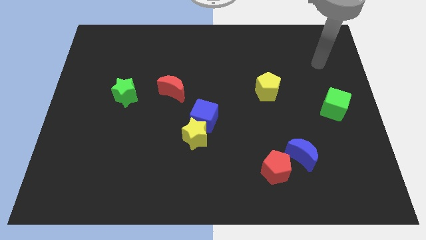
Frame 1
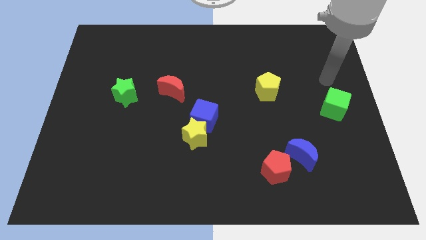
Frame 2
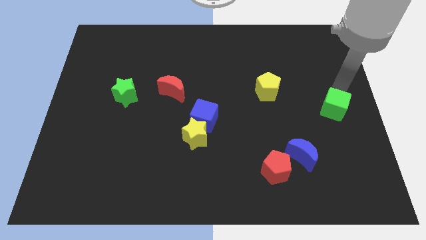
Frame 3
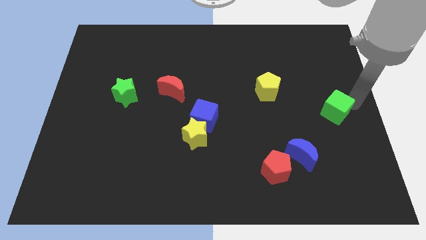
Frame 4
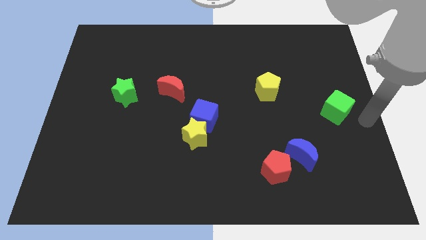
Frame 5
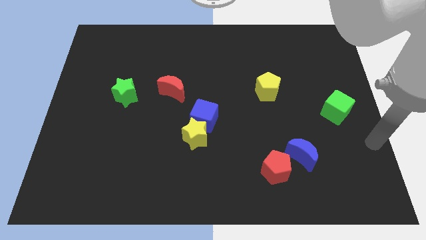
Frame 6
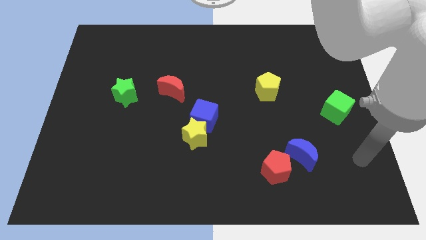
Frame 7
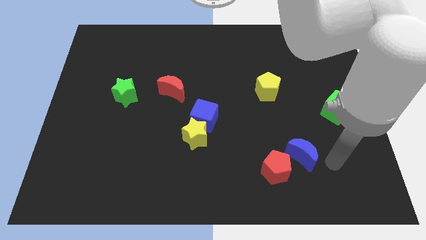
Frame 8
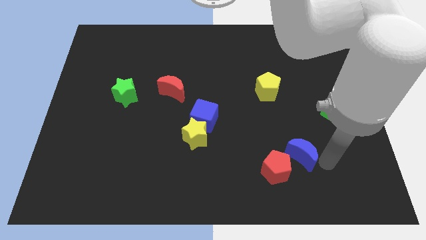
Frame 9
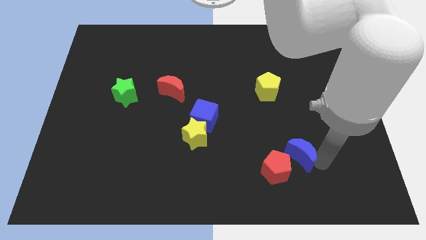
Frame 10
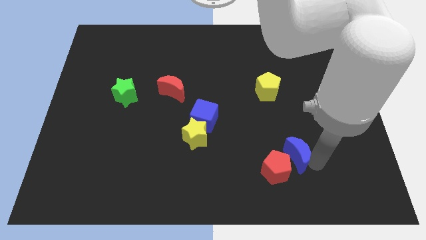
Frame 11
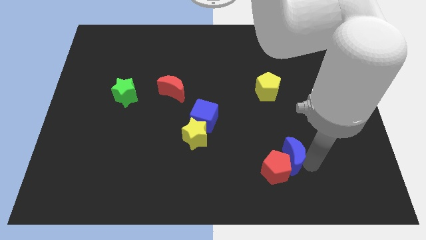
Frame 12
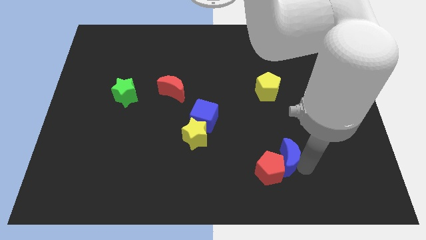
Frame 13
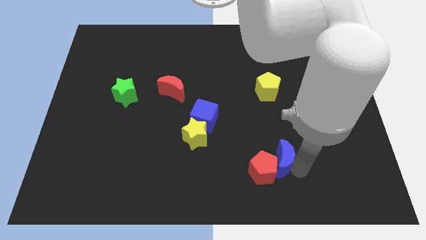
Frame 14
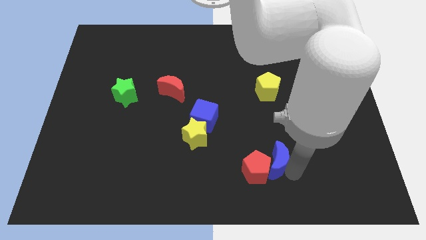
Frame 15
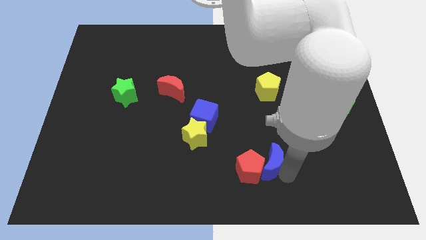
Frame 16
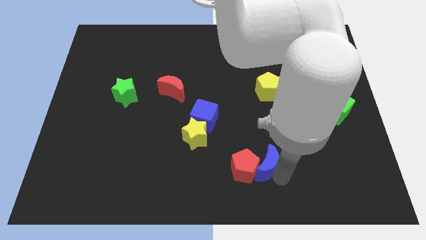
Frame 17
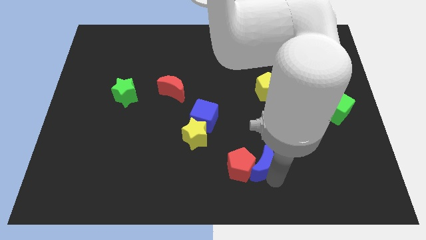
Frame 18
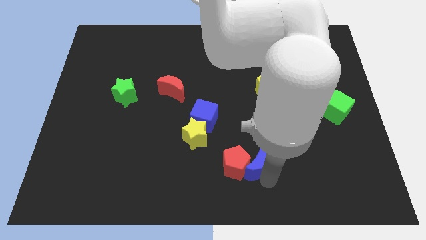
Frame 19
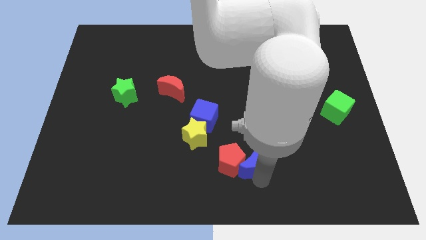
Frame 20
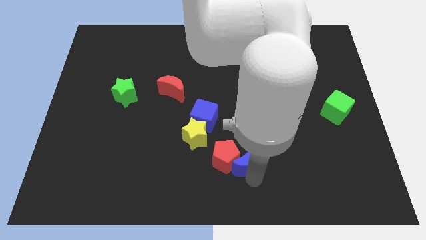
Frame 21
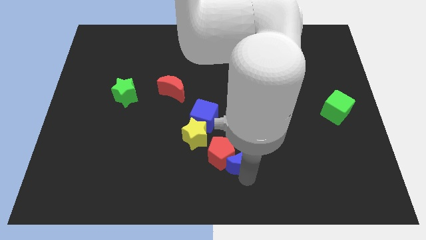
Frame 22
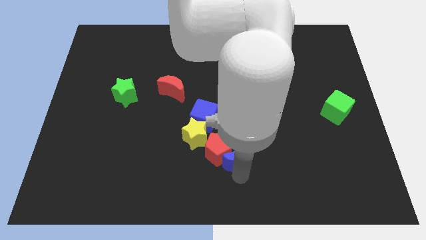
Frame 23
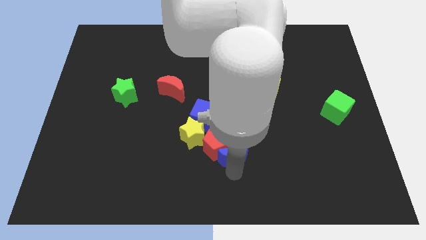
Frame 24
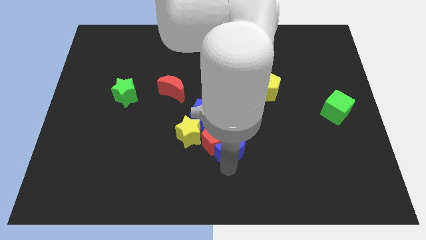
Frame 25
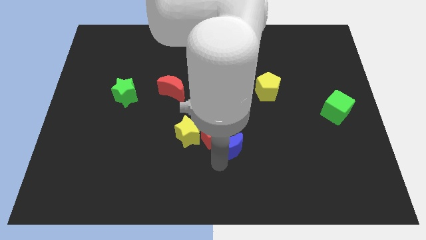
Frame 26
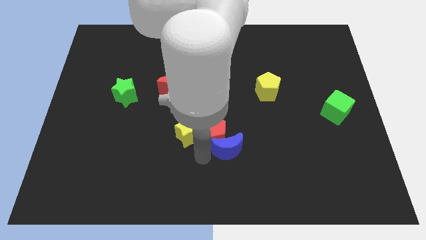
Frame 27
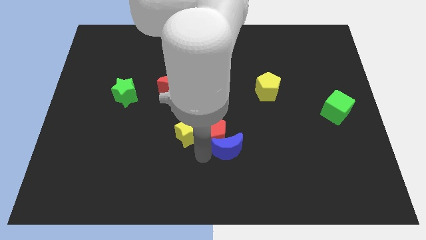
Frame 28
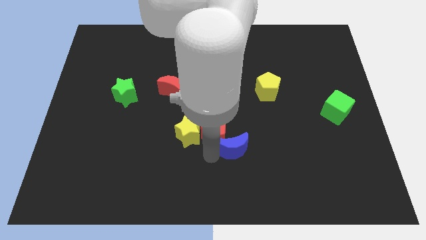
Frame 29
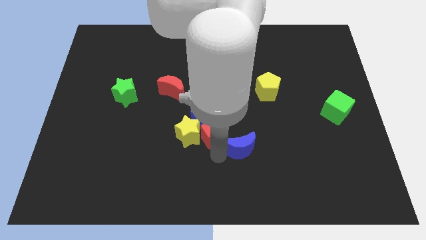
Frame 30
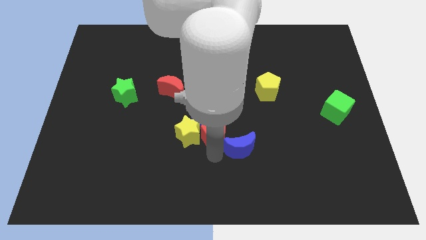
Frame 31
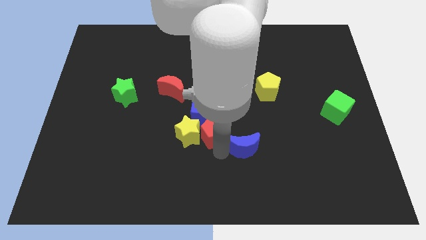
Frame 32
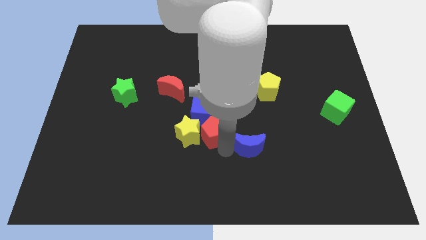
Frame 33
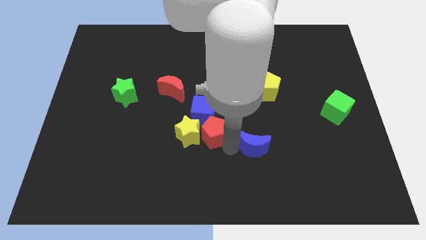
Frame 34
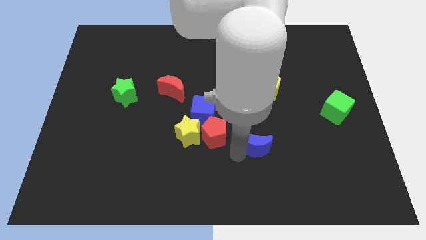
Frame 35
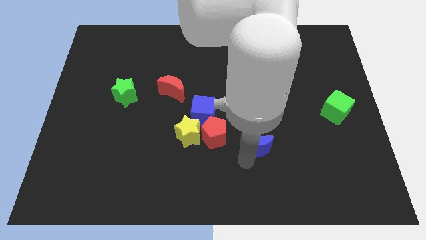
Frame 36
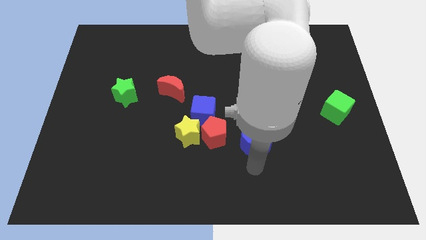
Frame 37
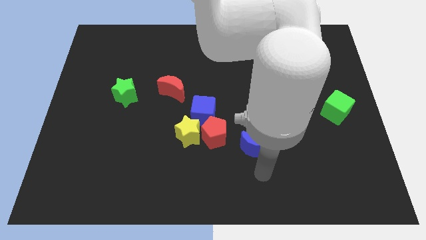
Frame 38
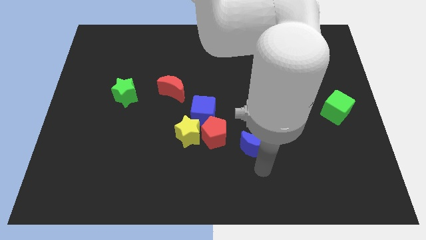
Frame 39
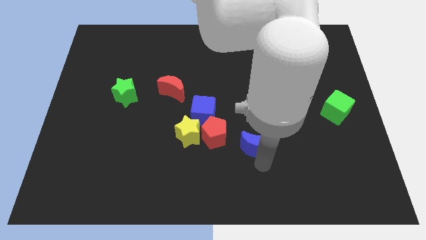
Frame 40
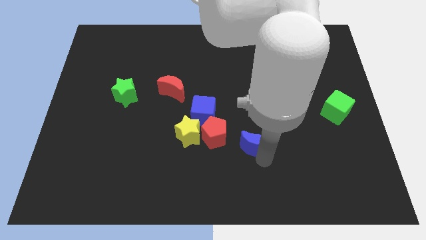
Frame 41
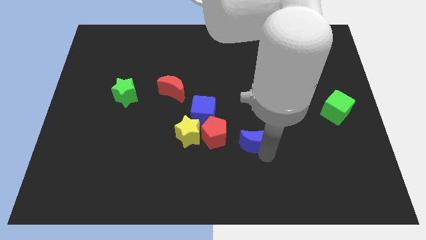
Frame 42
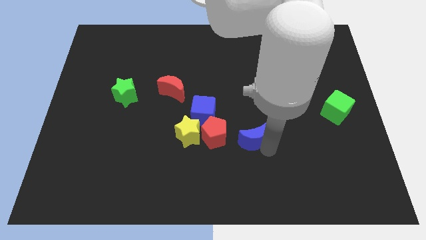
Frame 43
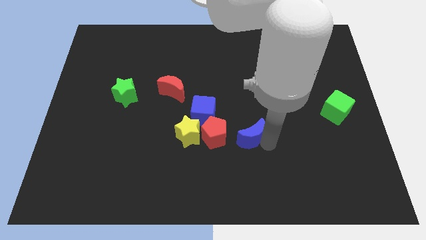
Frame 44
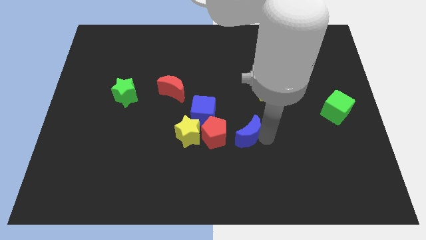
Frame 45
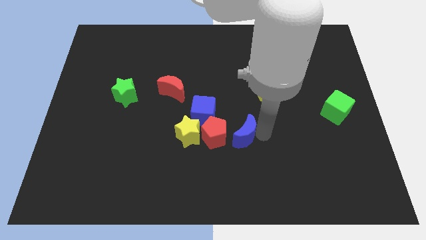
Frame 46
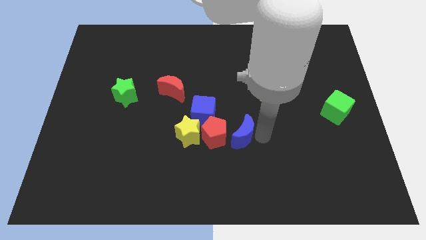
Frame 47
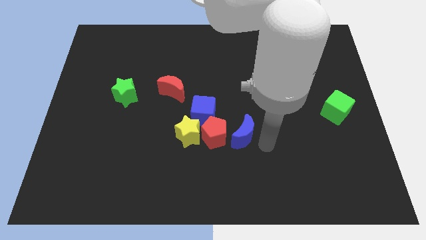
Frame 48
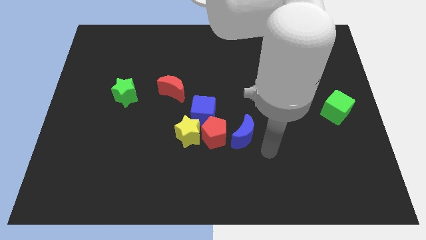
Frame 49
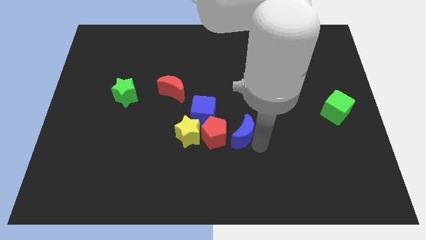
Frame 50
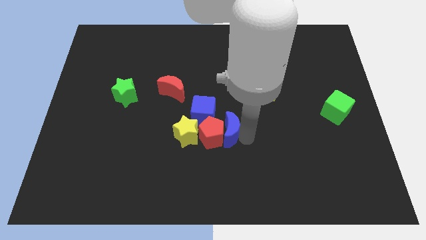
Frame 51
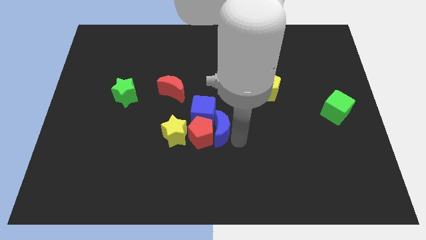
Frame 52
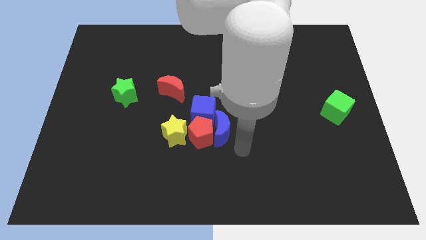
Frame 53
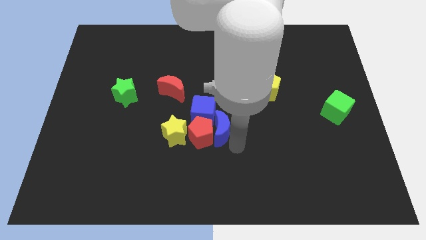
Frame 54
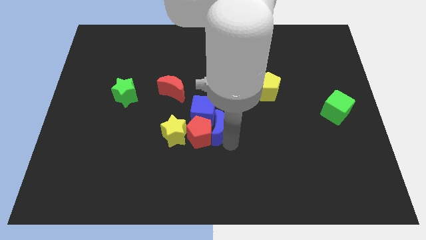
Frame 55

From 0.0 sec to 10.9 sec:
push the blue moon next to the blue cube

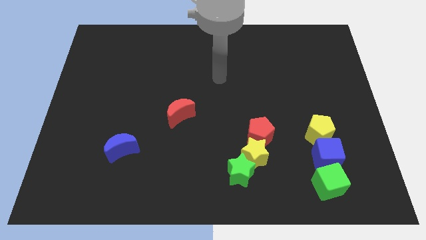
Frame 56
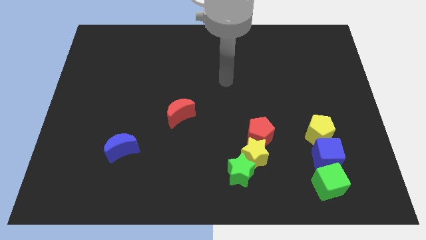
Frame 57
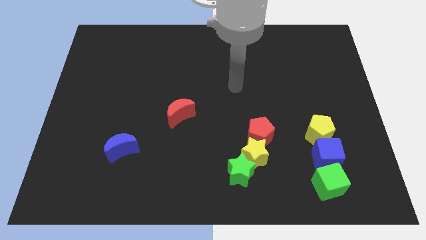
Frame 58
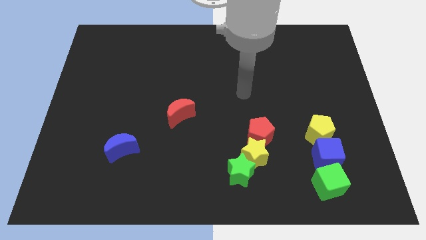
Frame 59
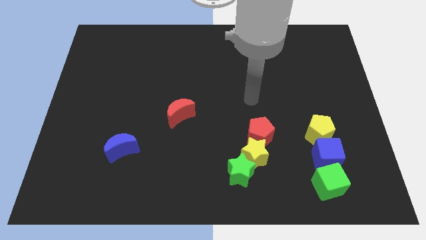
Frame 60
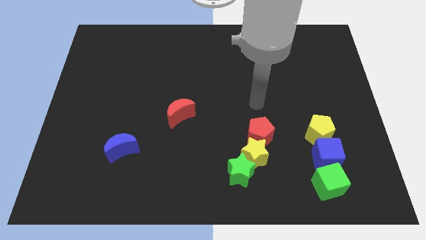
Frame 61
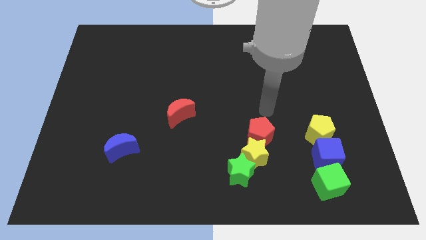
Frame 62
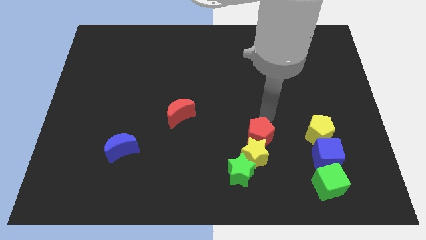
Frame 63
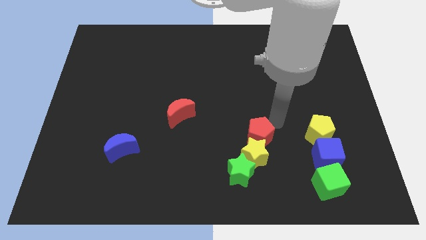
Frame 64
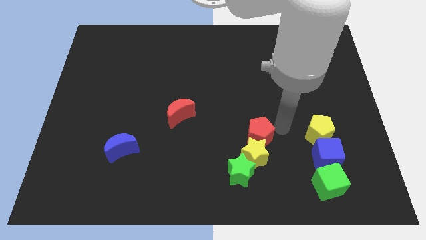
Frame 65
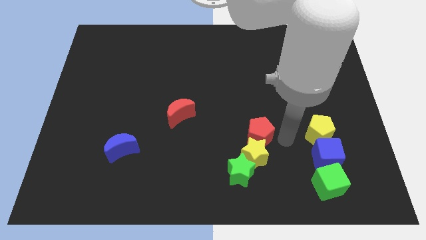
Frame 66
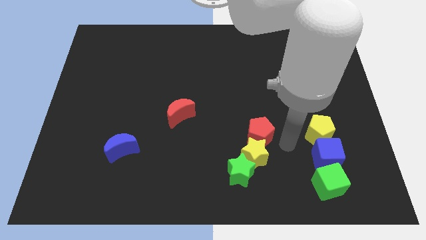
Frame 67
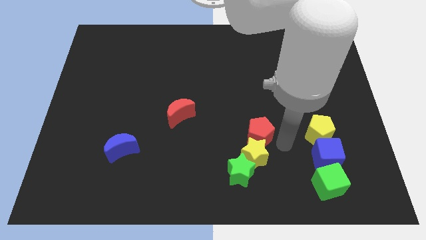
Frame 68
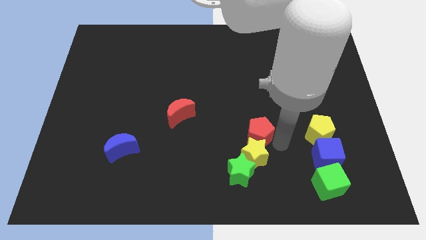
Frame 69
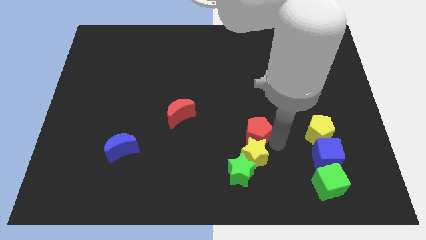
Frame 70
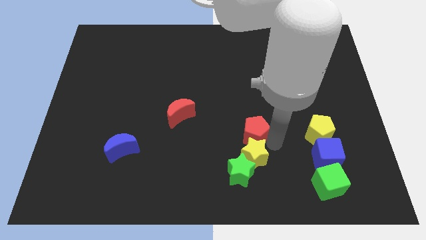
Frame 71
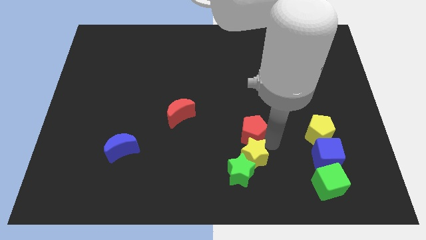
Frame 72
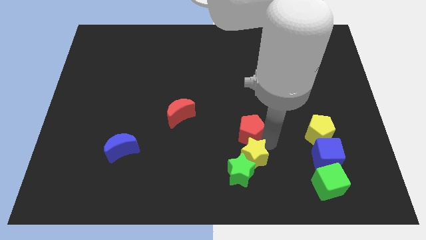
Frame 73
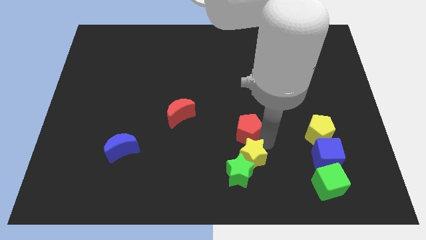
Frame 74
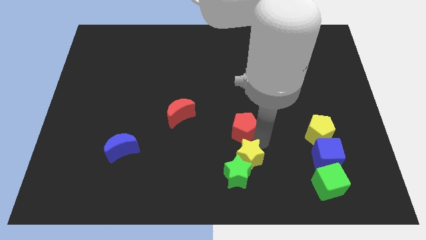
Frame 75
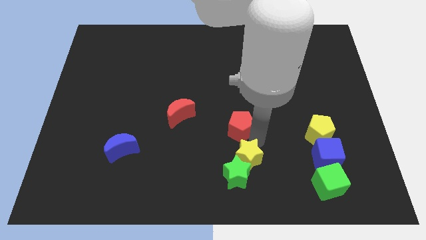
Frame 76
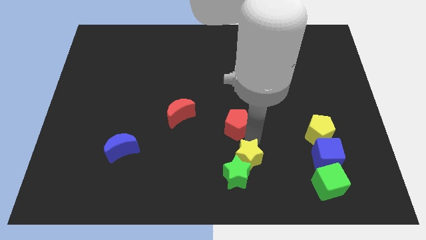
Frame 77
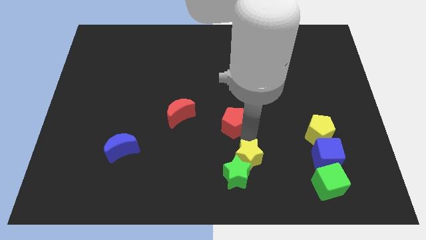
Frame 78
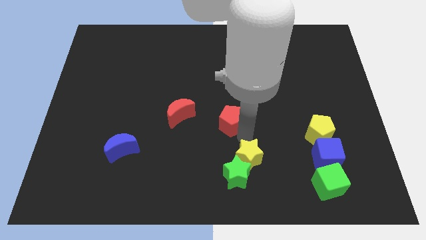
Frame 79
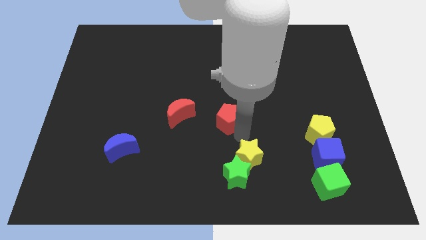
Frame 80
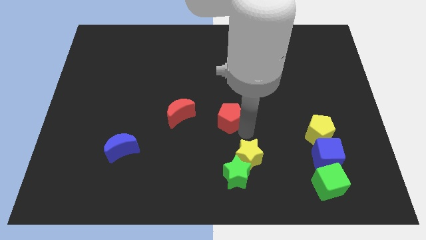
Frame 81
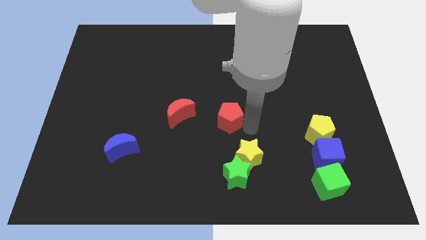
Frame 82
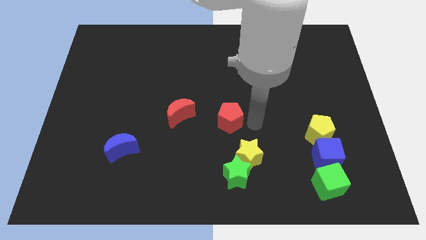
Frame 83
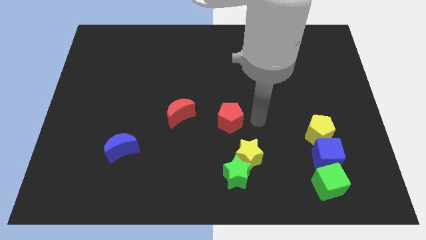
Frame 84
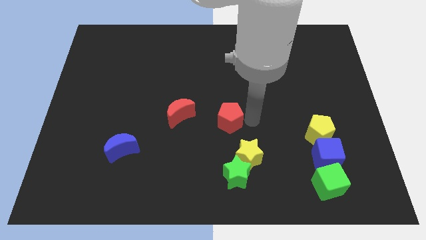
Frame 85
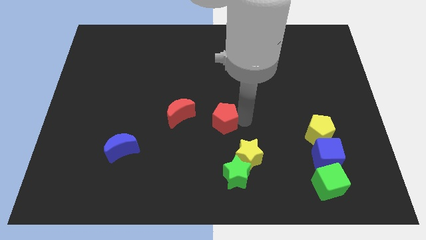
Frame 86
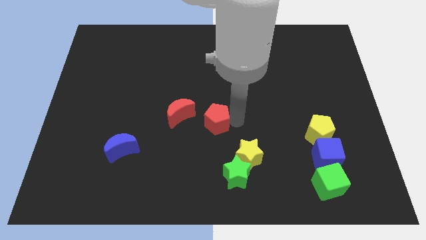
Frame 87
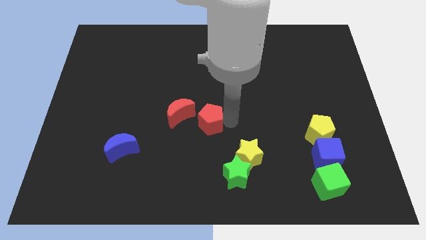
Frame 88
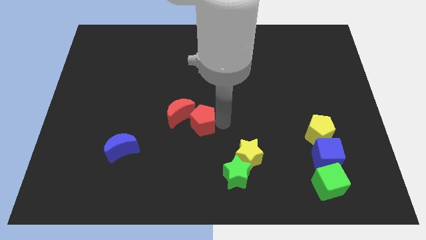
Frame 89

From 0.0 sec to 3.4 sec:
put the red pentagon next to the red moon
